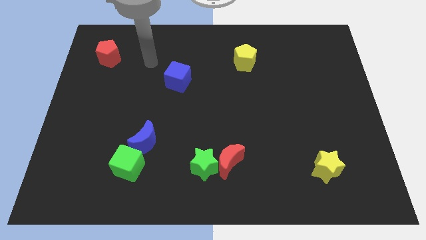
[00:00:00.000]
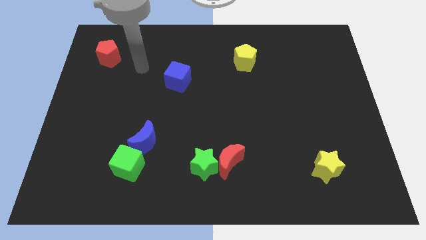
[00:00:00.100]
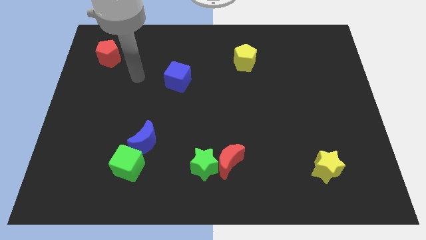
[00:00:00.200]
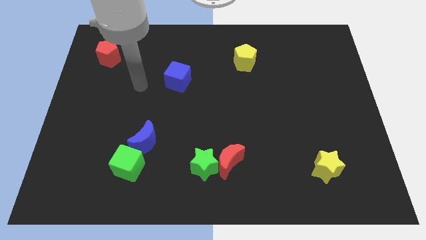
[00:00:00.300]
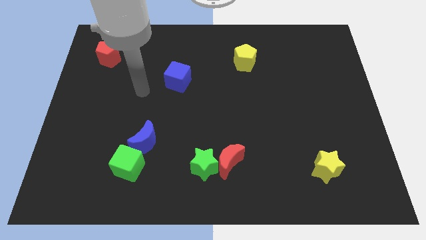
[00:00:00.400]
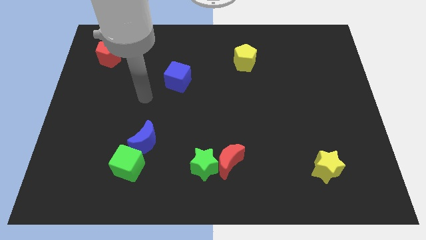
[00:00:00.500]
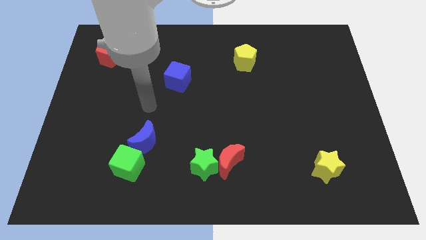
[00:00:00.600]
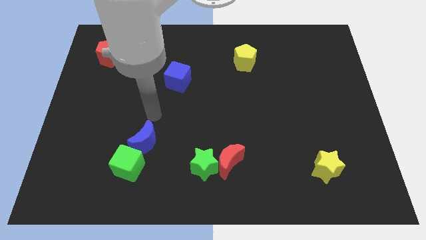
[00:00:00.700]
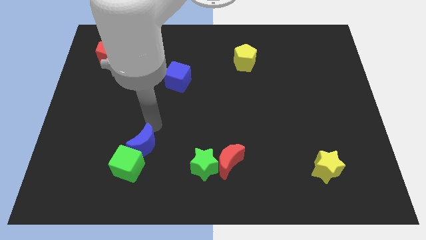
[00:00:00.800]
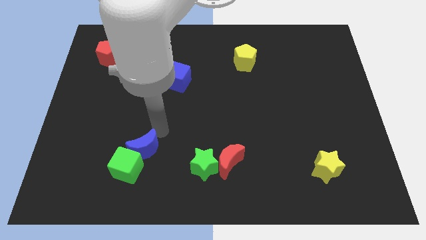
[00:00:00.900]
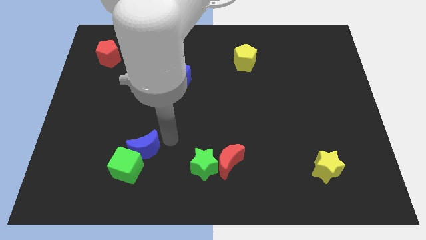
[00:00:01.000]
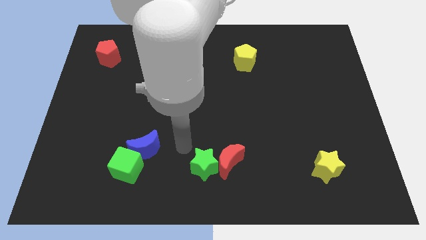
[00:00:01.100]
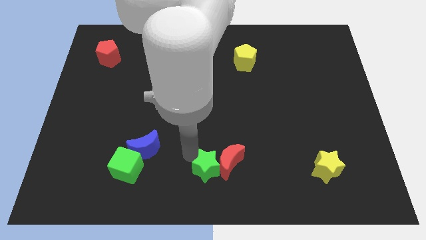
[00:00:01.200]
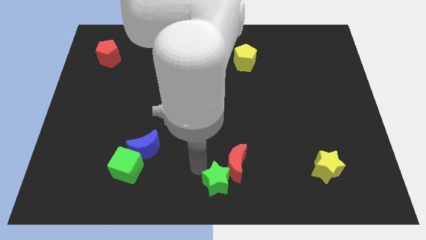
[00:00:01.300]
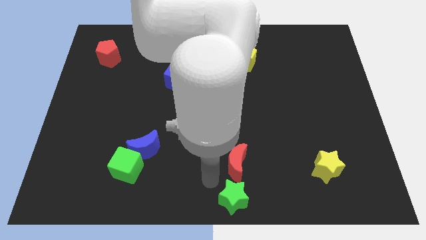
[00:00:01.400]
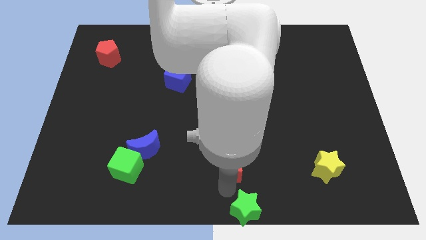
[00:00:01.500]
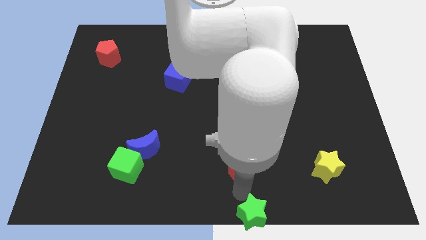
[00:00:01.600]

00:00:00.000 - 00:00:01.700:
move the red moon away from the green star

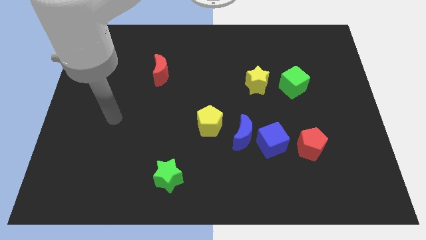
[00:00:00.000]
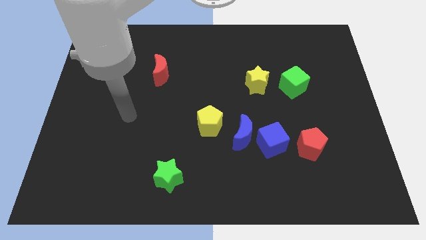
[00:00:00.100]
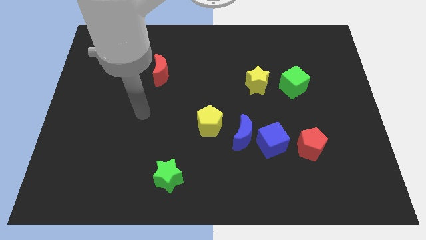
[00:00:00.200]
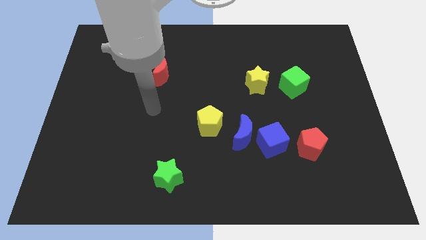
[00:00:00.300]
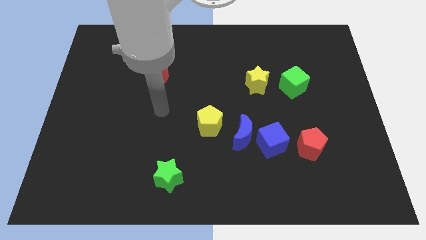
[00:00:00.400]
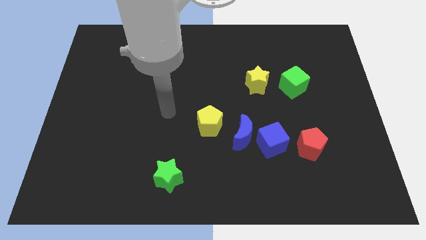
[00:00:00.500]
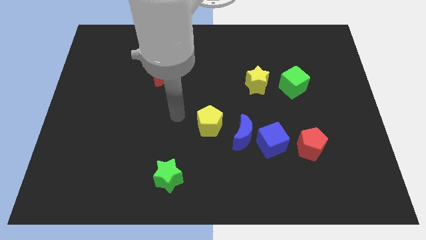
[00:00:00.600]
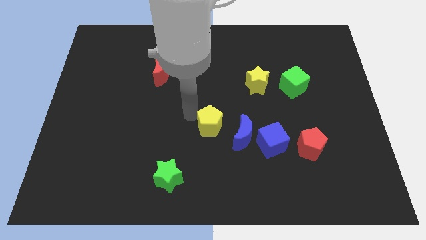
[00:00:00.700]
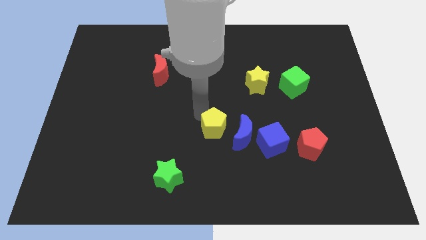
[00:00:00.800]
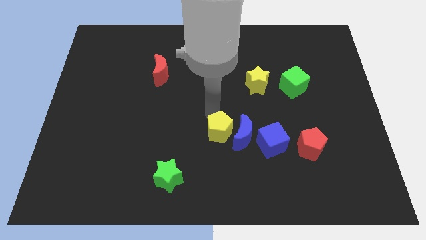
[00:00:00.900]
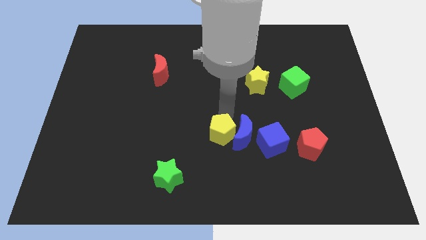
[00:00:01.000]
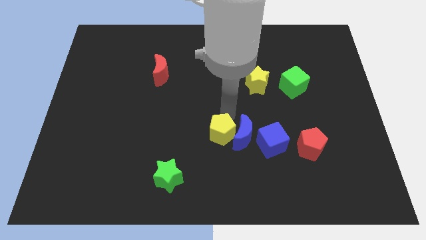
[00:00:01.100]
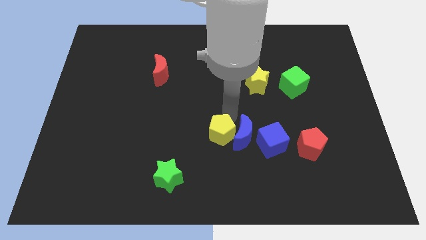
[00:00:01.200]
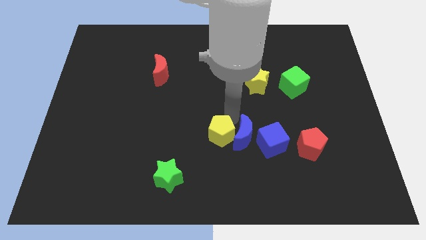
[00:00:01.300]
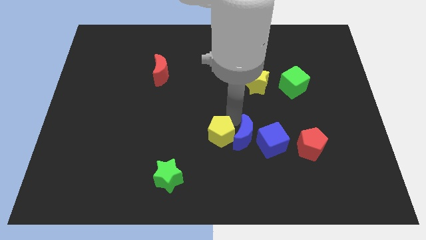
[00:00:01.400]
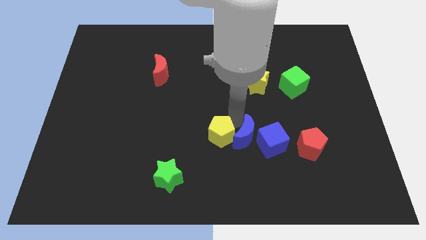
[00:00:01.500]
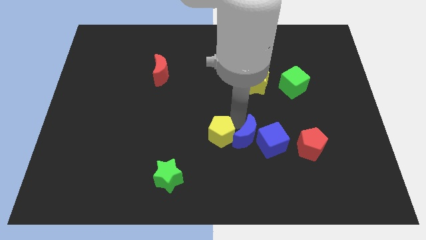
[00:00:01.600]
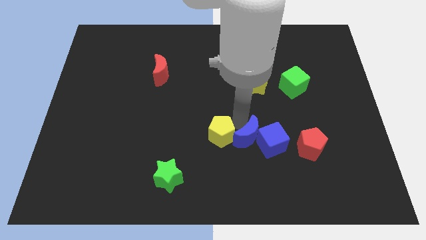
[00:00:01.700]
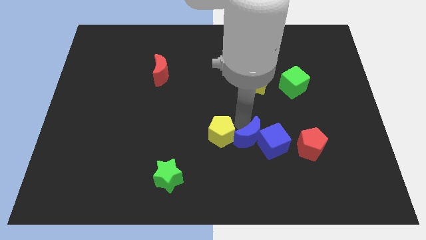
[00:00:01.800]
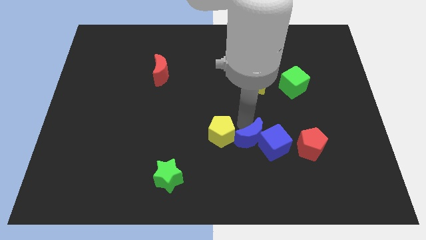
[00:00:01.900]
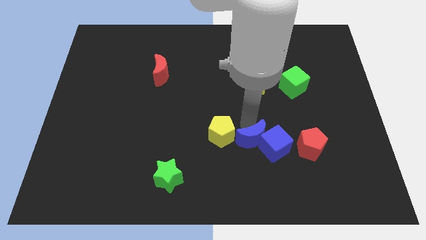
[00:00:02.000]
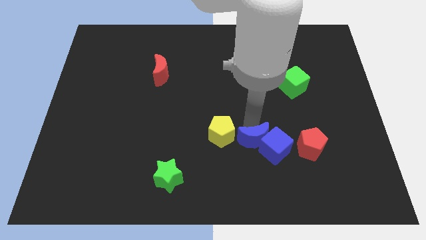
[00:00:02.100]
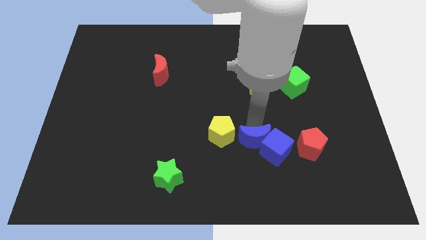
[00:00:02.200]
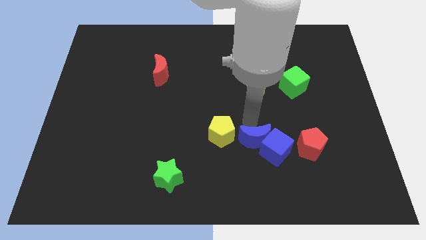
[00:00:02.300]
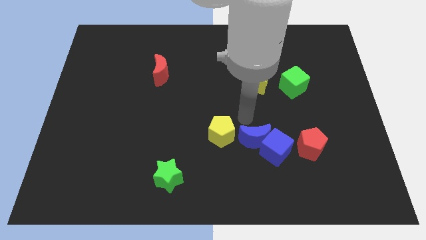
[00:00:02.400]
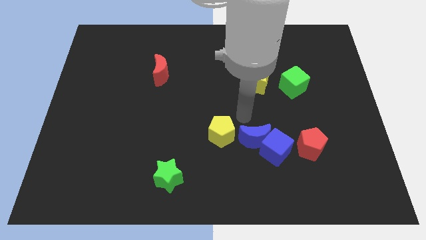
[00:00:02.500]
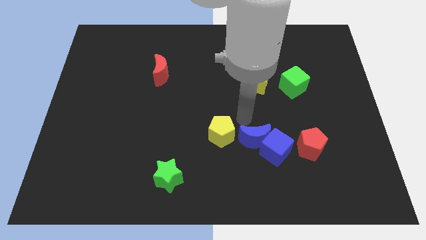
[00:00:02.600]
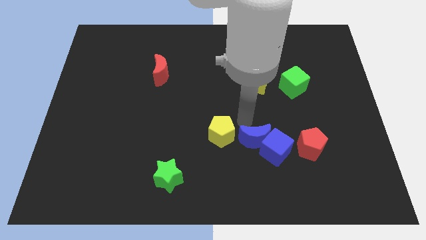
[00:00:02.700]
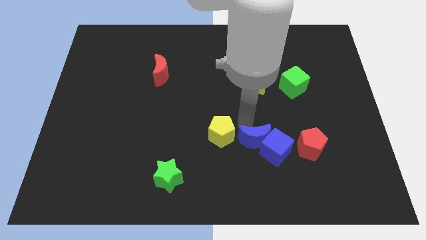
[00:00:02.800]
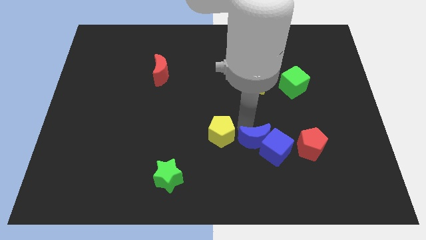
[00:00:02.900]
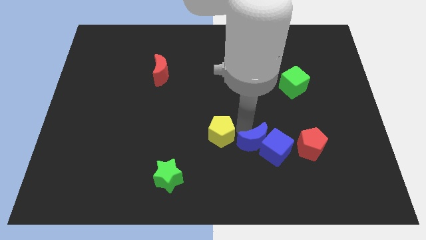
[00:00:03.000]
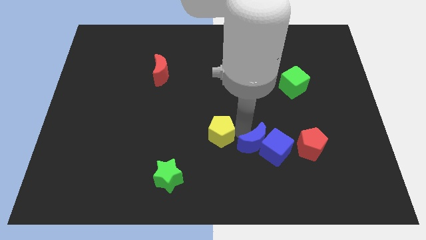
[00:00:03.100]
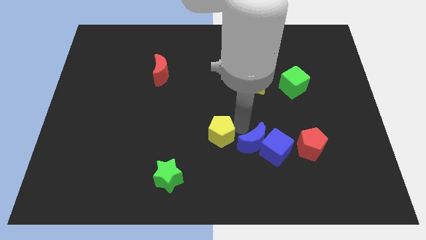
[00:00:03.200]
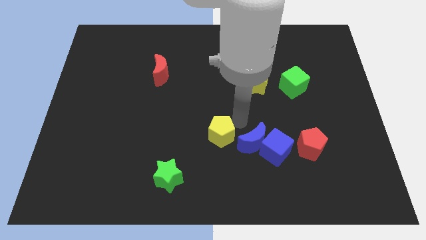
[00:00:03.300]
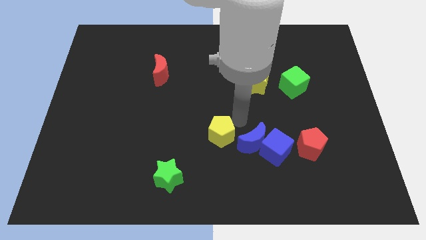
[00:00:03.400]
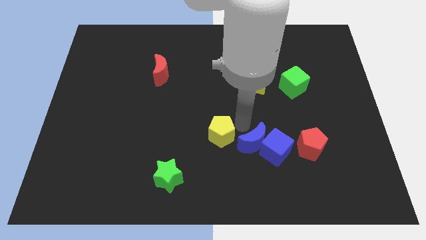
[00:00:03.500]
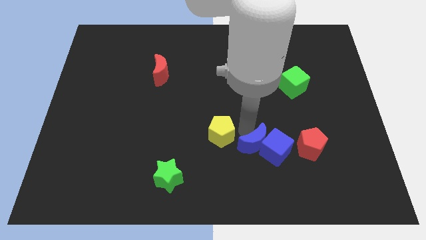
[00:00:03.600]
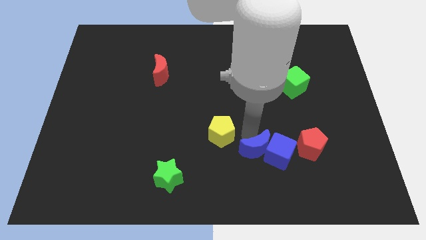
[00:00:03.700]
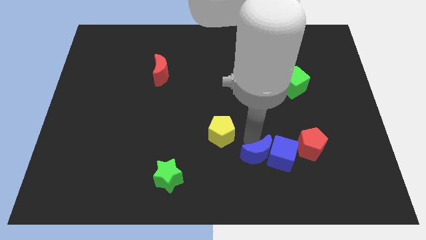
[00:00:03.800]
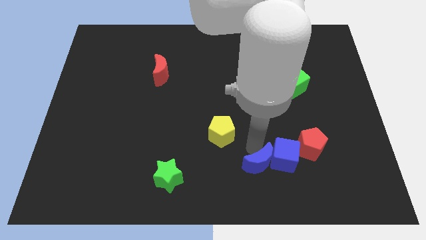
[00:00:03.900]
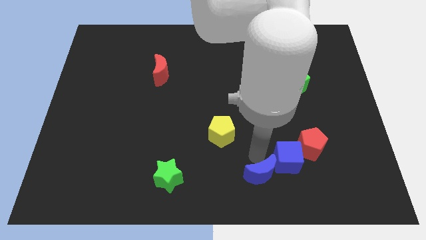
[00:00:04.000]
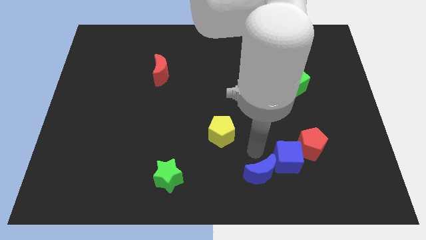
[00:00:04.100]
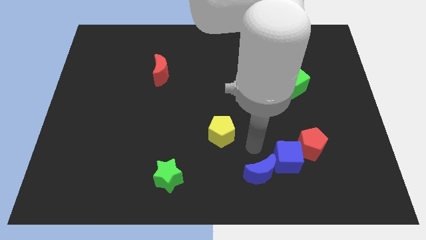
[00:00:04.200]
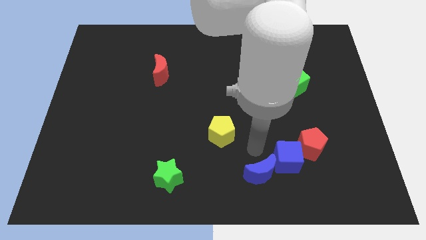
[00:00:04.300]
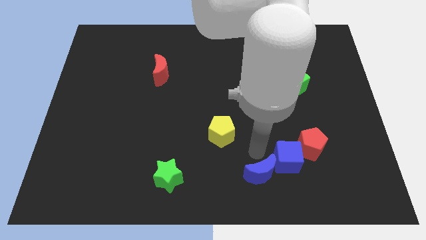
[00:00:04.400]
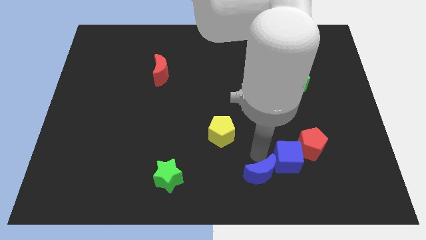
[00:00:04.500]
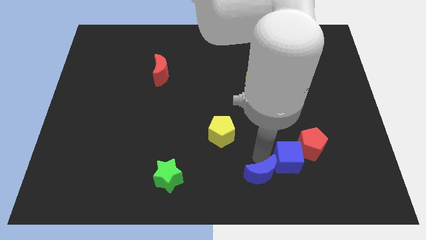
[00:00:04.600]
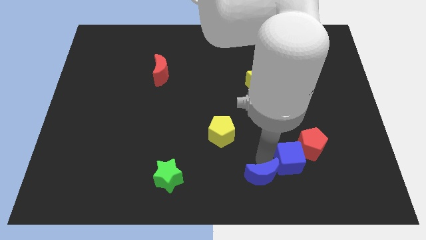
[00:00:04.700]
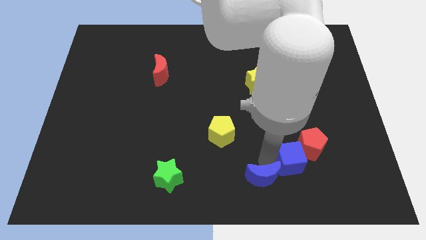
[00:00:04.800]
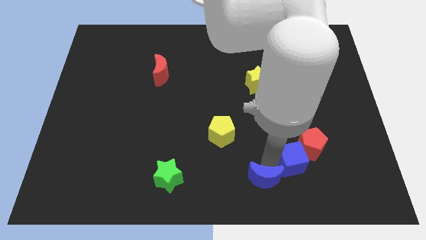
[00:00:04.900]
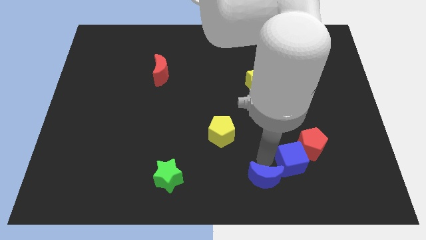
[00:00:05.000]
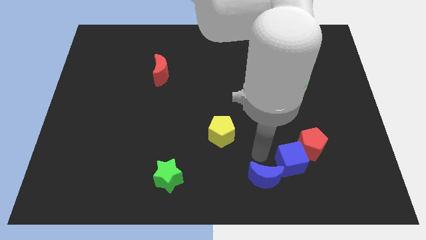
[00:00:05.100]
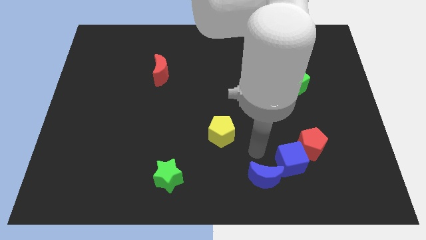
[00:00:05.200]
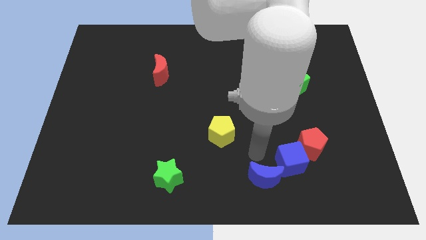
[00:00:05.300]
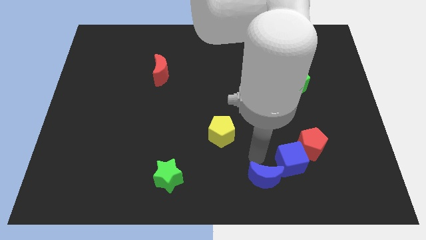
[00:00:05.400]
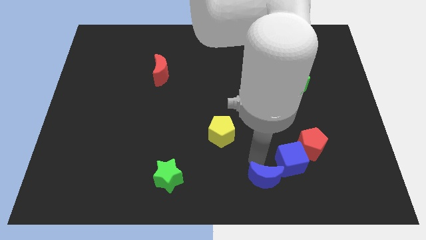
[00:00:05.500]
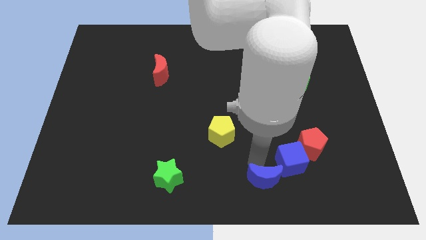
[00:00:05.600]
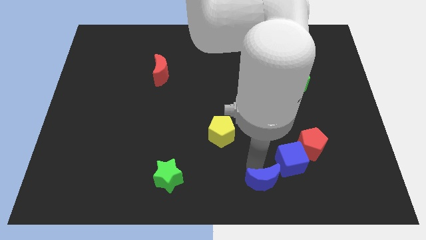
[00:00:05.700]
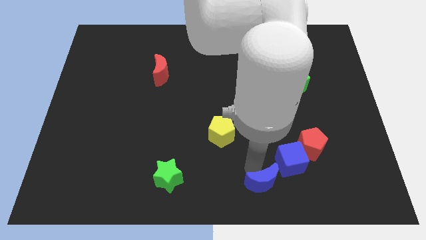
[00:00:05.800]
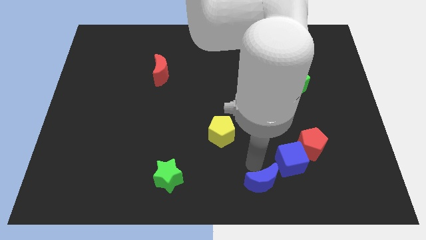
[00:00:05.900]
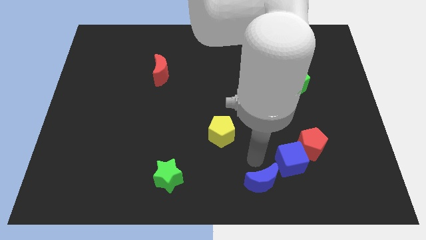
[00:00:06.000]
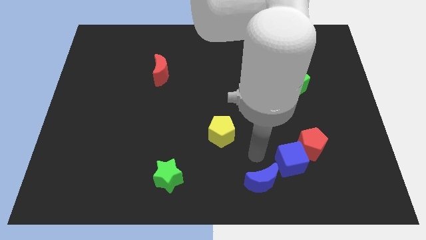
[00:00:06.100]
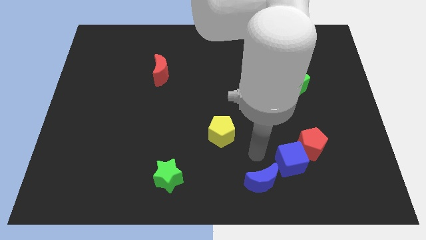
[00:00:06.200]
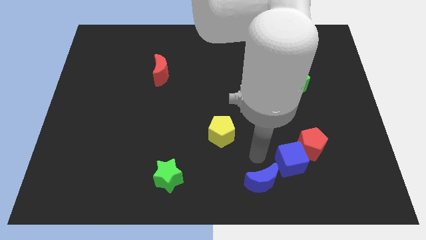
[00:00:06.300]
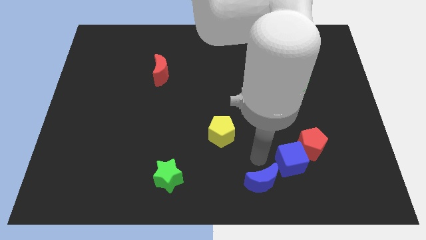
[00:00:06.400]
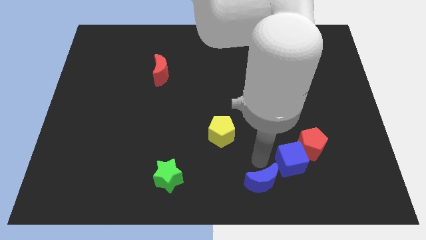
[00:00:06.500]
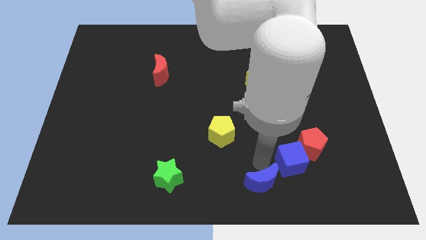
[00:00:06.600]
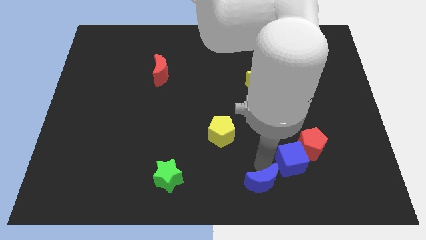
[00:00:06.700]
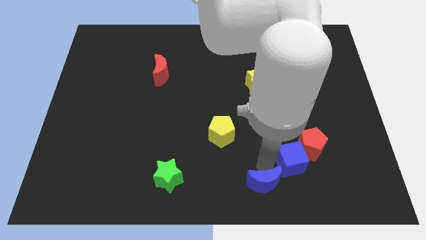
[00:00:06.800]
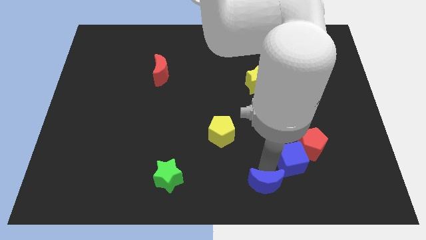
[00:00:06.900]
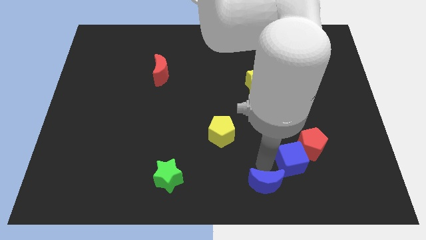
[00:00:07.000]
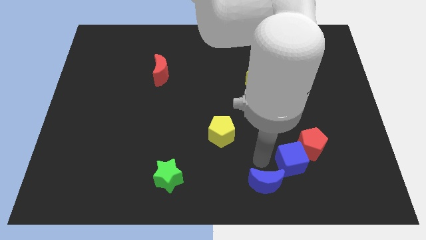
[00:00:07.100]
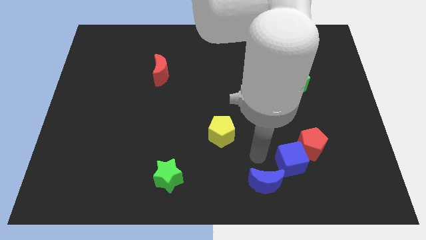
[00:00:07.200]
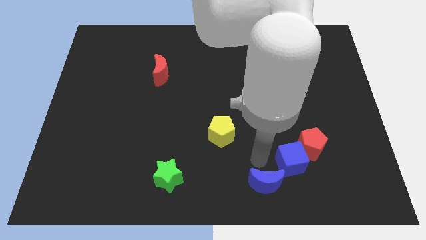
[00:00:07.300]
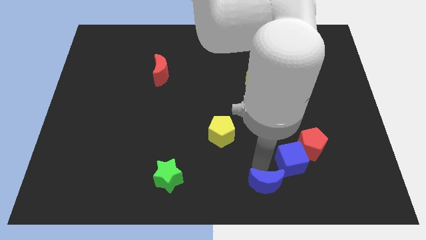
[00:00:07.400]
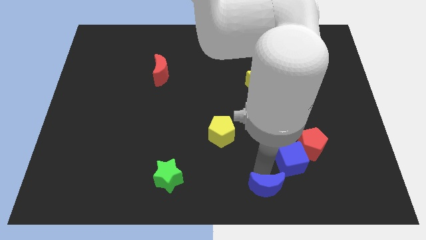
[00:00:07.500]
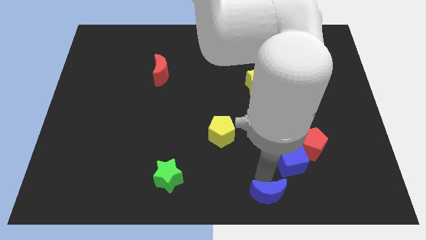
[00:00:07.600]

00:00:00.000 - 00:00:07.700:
move the blue moon away from the blue cube and yellow pentagon
